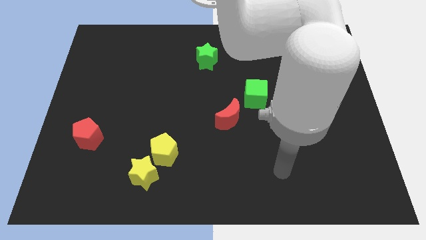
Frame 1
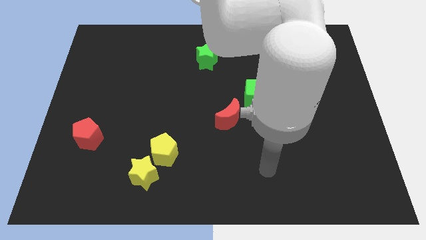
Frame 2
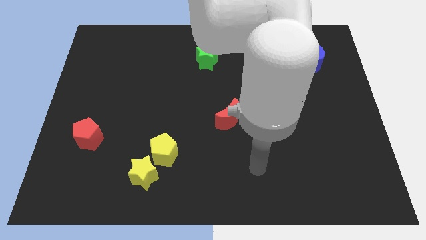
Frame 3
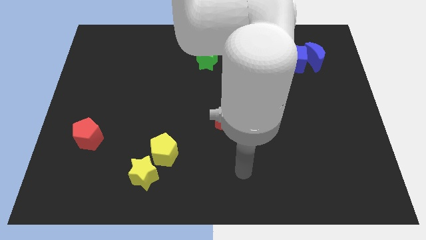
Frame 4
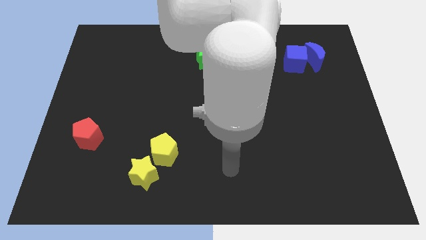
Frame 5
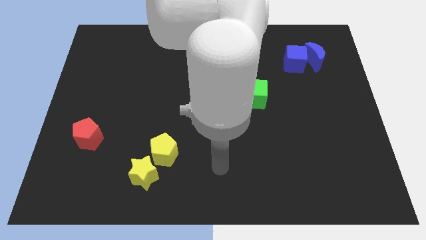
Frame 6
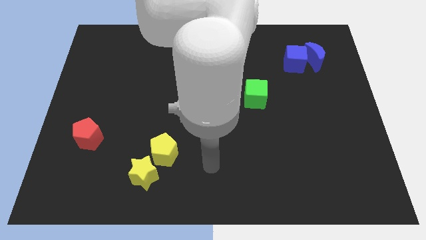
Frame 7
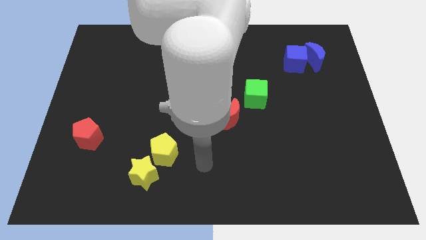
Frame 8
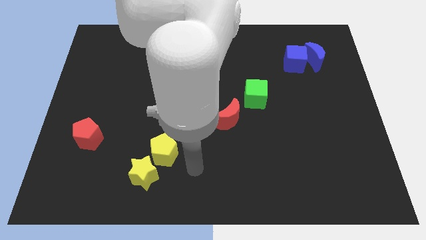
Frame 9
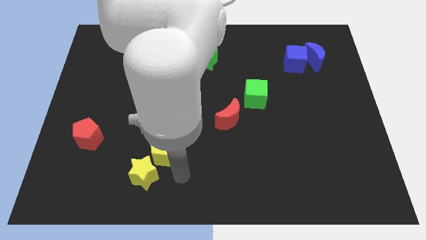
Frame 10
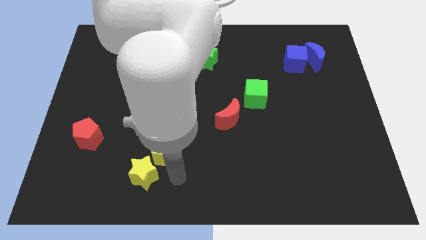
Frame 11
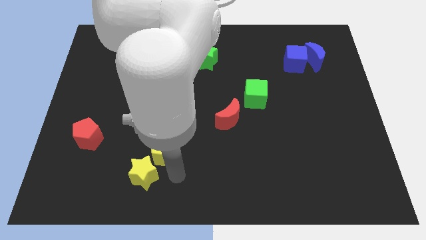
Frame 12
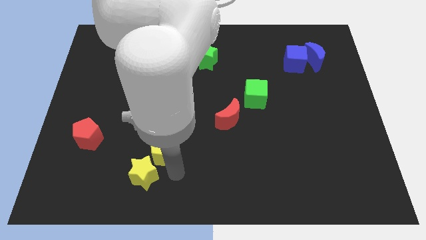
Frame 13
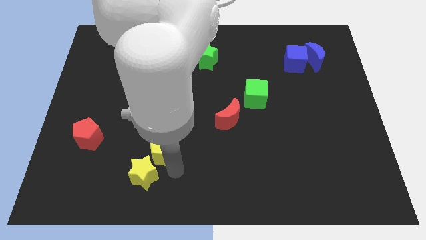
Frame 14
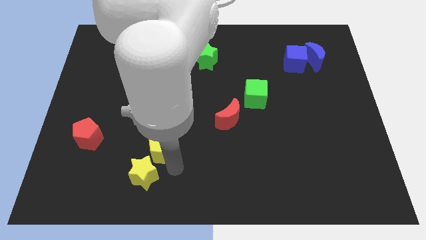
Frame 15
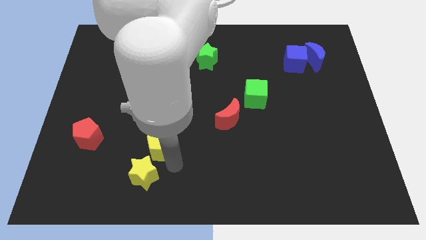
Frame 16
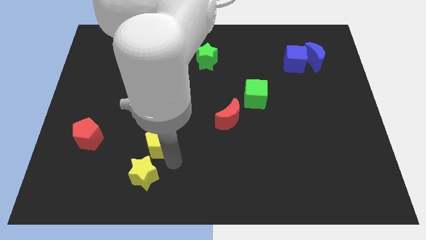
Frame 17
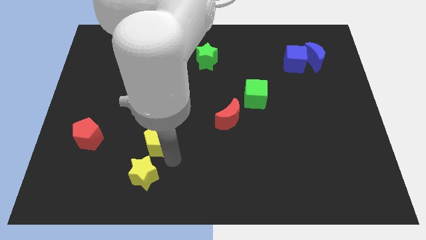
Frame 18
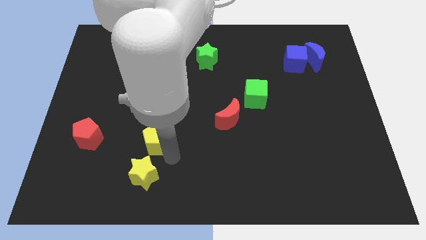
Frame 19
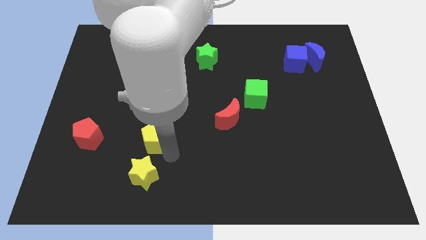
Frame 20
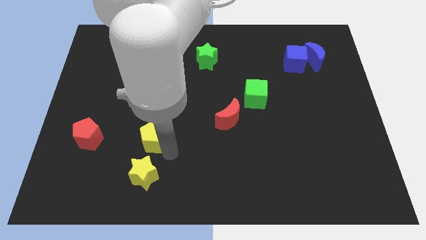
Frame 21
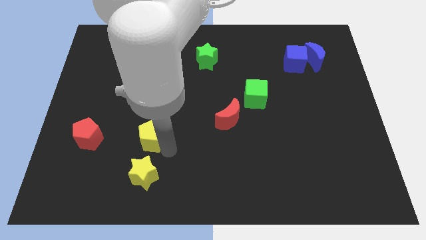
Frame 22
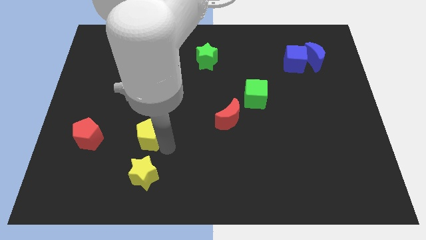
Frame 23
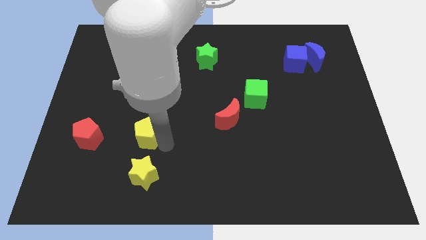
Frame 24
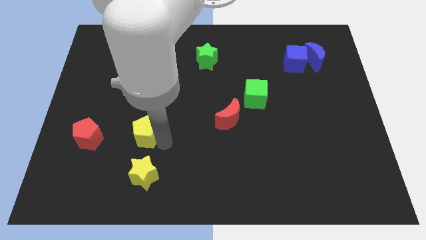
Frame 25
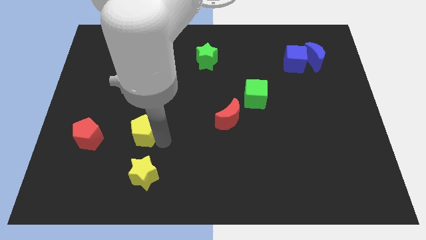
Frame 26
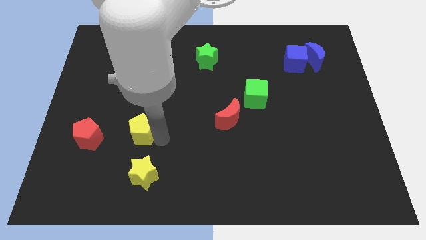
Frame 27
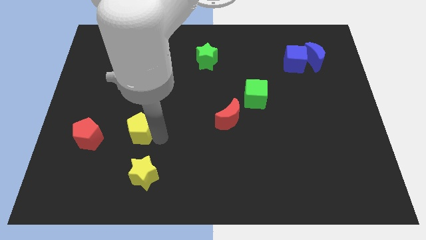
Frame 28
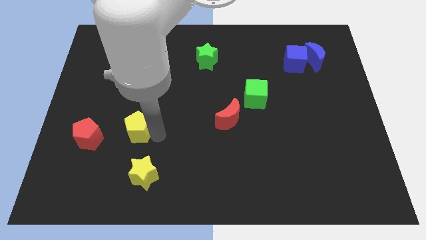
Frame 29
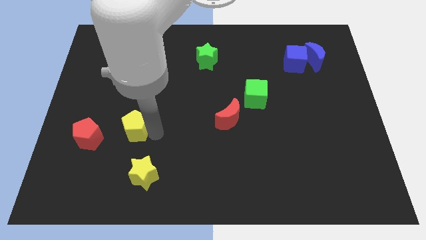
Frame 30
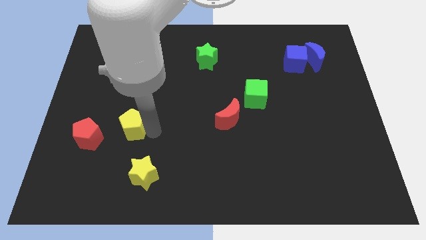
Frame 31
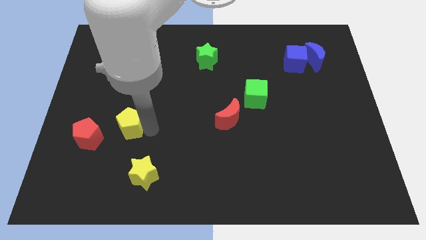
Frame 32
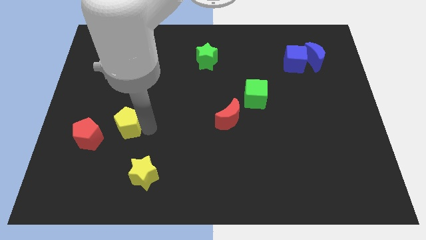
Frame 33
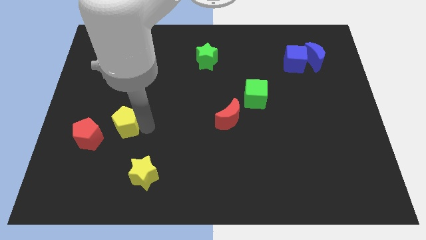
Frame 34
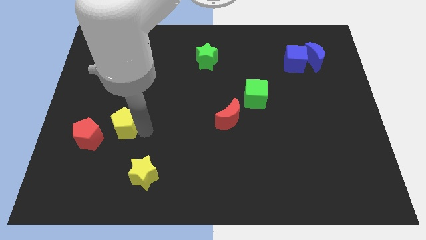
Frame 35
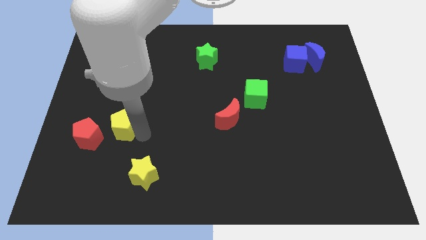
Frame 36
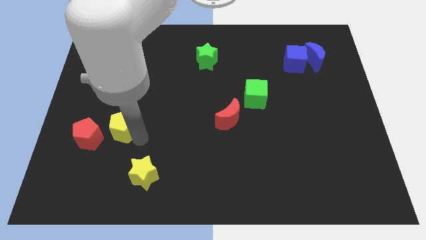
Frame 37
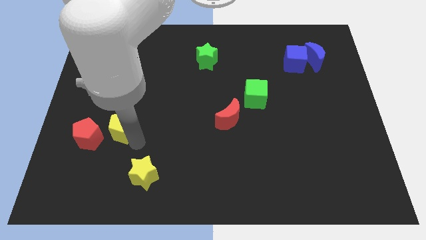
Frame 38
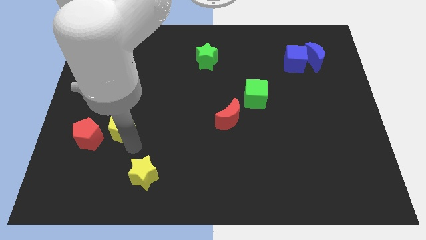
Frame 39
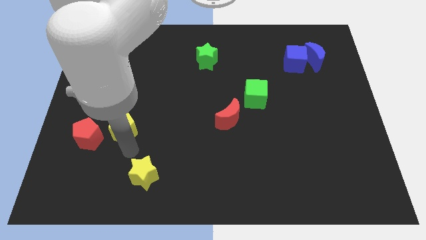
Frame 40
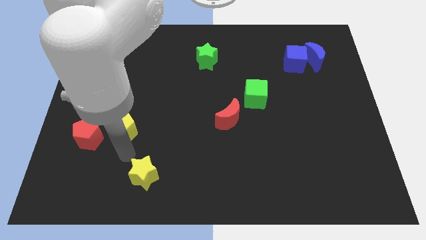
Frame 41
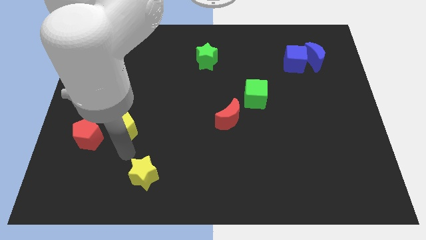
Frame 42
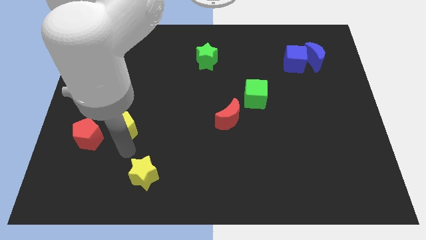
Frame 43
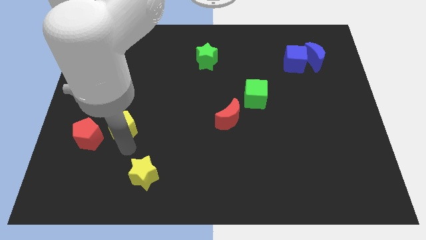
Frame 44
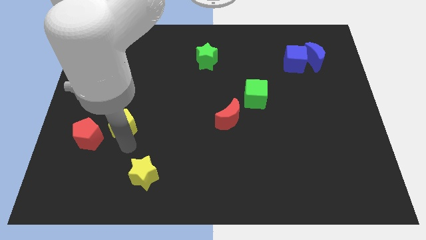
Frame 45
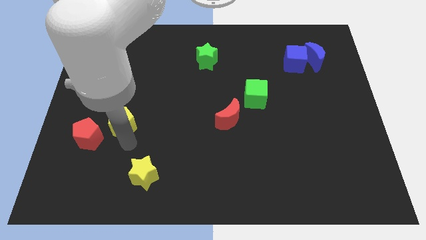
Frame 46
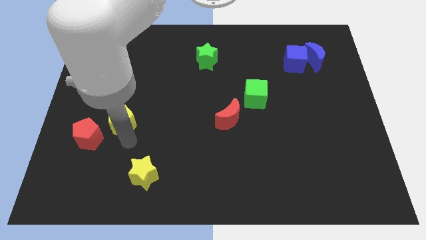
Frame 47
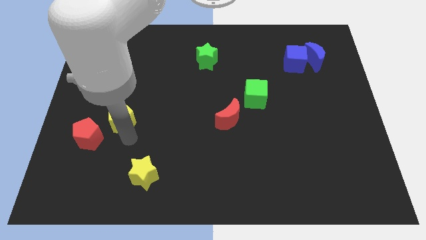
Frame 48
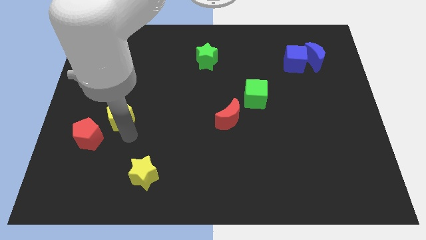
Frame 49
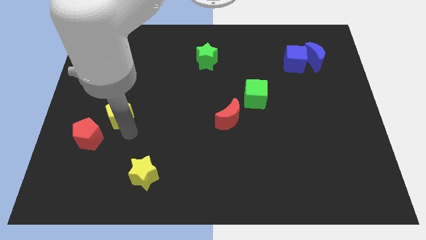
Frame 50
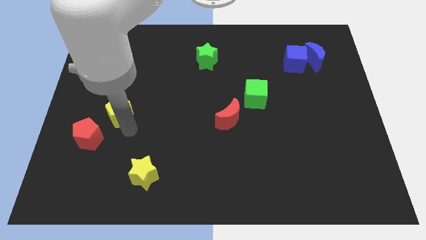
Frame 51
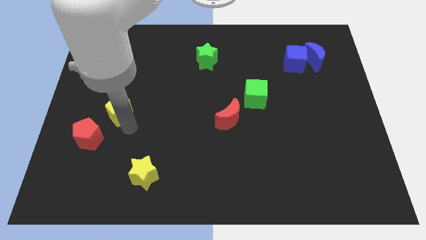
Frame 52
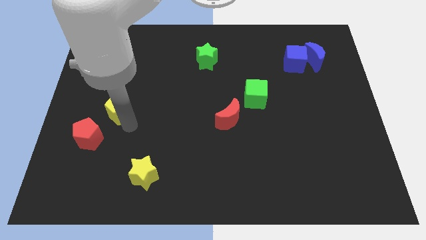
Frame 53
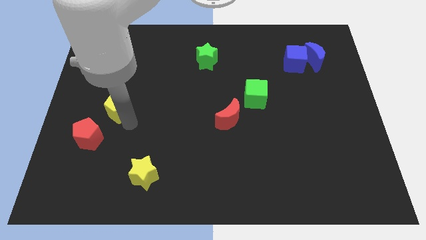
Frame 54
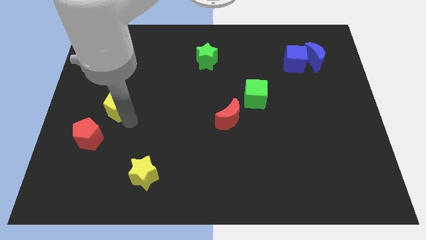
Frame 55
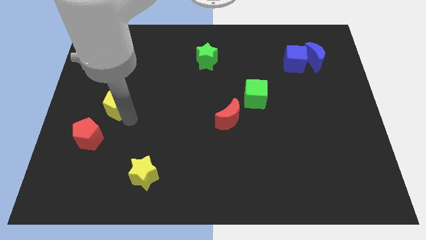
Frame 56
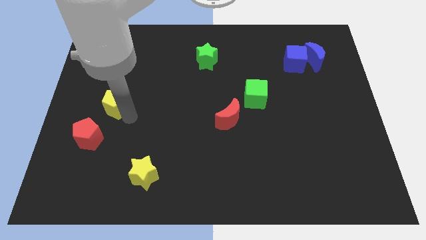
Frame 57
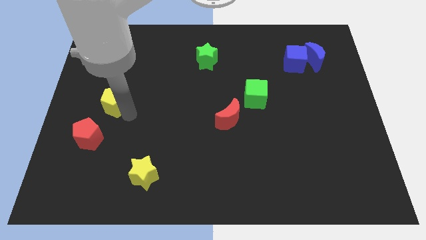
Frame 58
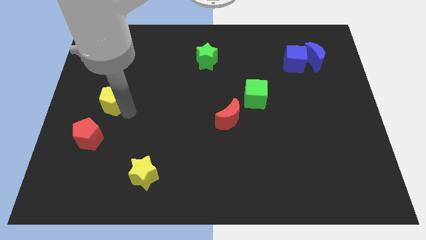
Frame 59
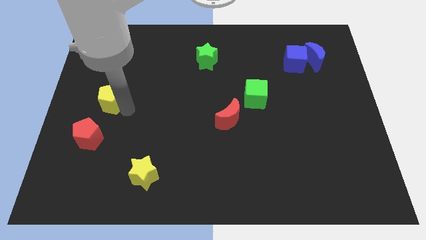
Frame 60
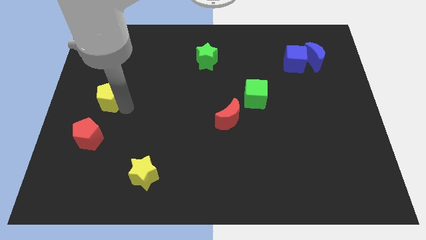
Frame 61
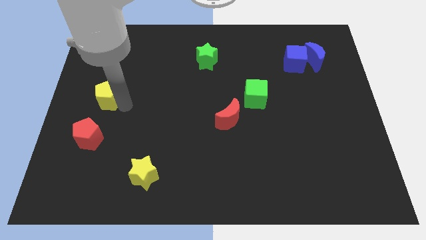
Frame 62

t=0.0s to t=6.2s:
push the yellow pentagon to the left side of the board

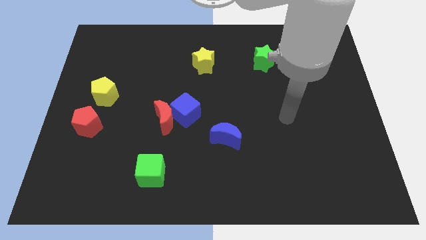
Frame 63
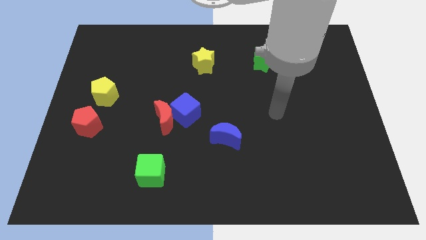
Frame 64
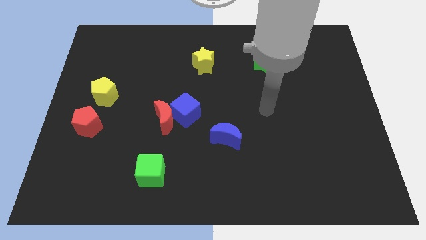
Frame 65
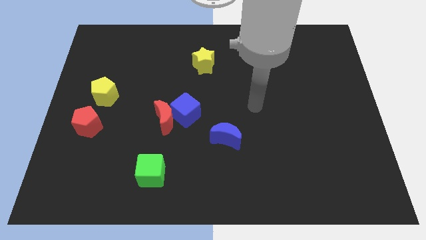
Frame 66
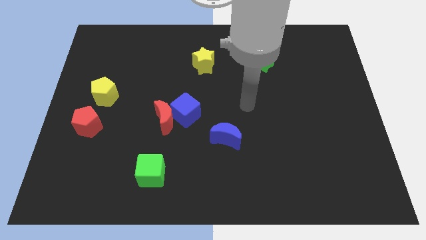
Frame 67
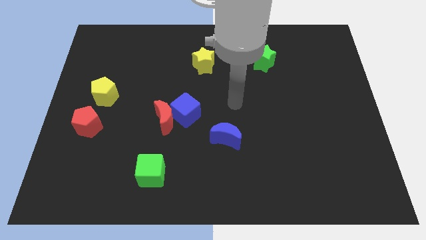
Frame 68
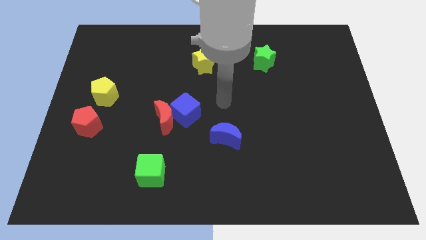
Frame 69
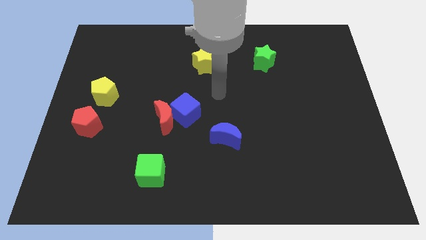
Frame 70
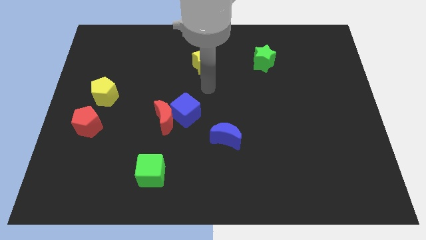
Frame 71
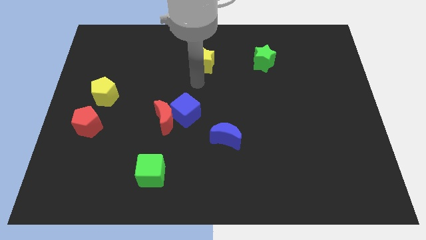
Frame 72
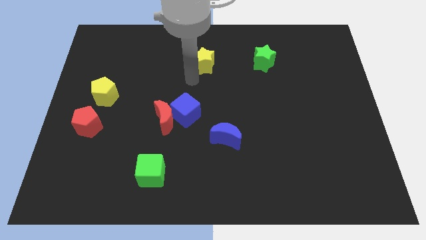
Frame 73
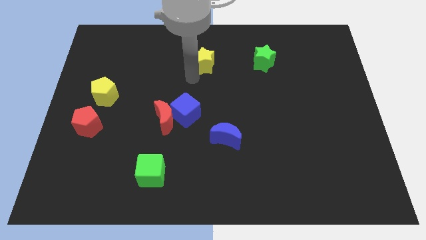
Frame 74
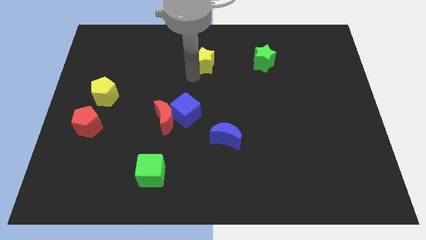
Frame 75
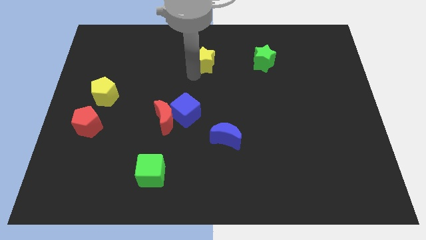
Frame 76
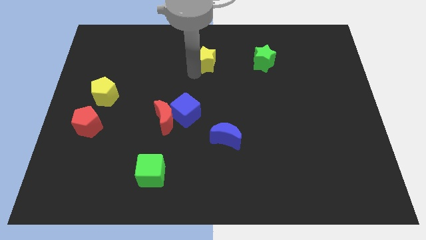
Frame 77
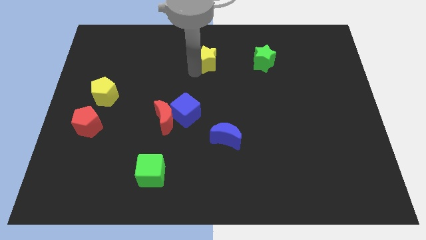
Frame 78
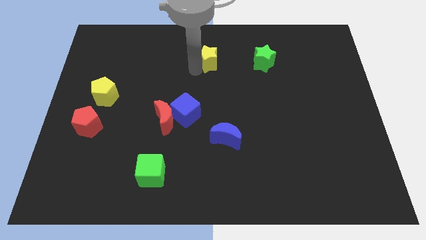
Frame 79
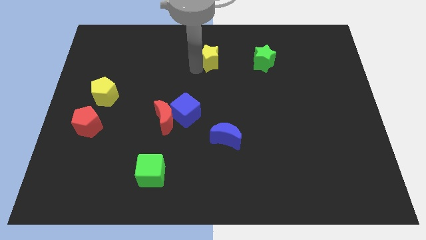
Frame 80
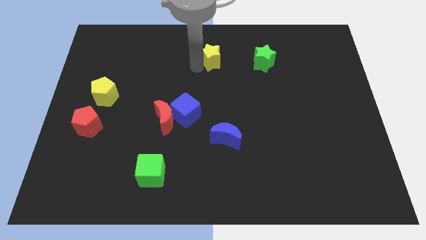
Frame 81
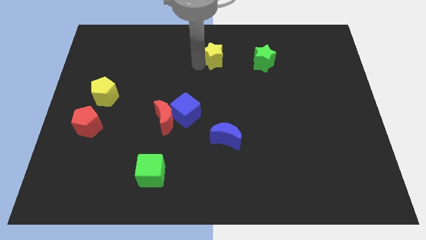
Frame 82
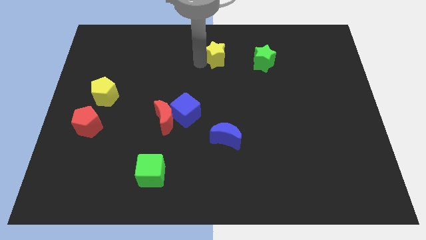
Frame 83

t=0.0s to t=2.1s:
push the yellow star to the top
